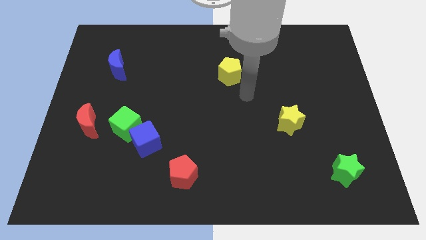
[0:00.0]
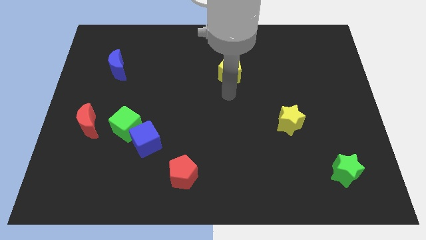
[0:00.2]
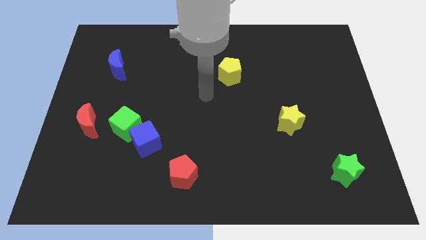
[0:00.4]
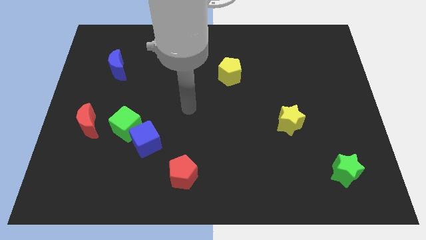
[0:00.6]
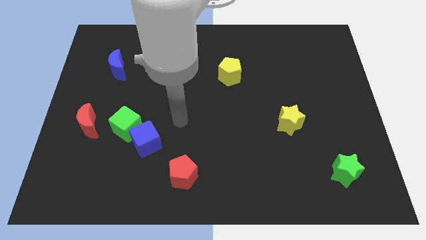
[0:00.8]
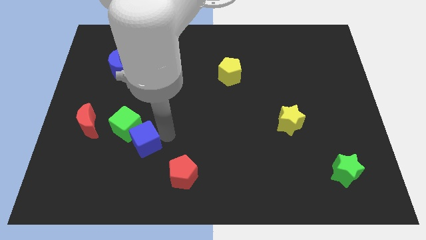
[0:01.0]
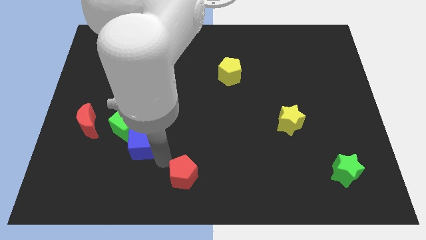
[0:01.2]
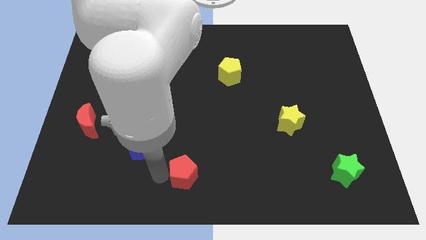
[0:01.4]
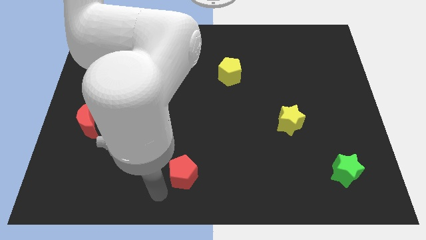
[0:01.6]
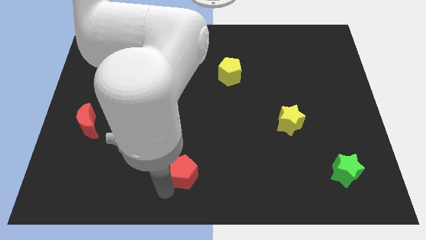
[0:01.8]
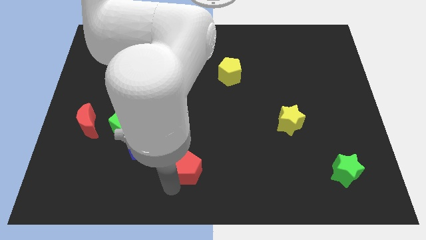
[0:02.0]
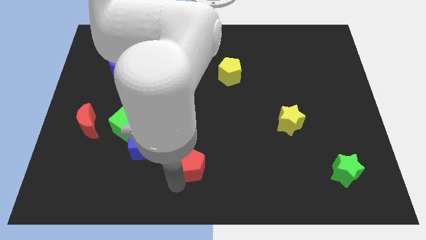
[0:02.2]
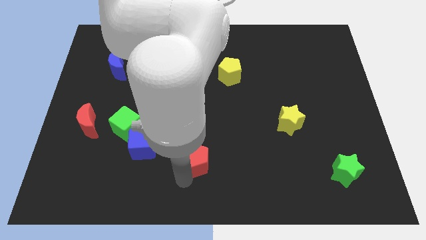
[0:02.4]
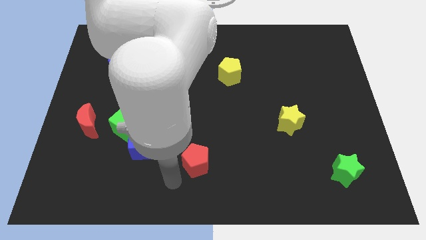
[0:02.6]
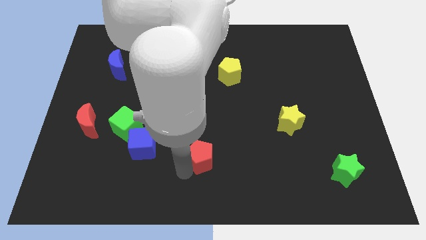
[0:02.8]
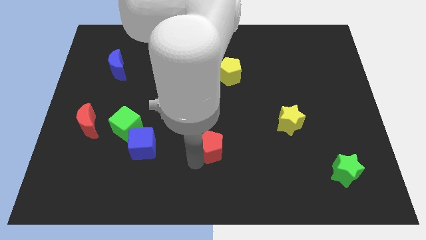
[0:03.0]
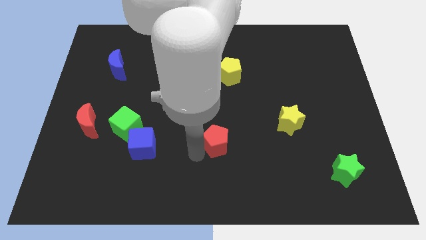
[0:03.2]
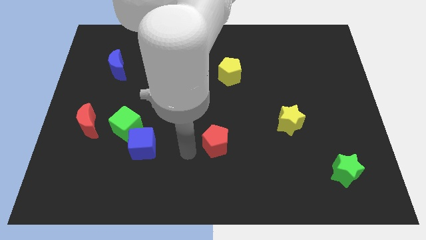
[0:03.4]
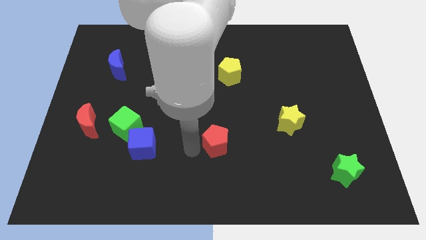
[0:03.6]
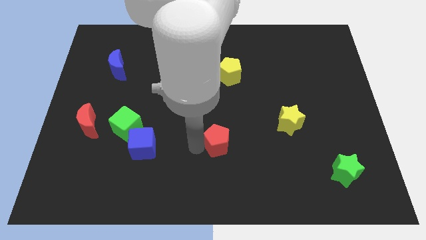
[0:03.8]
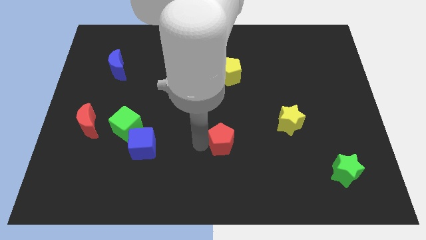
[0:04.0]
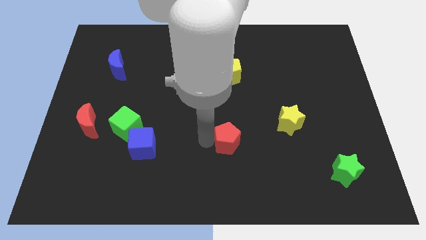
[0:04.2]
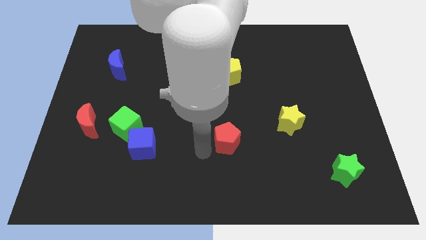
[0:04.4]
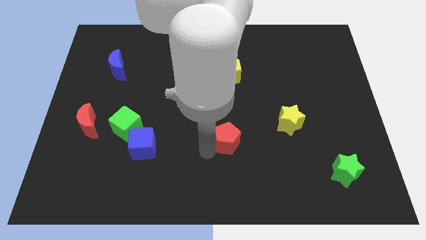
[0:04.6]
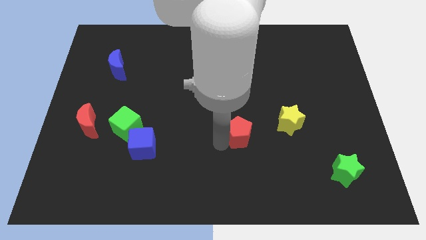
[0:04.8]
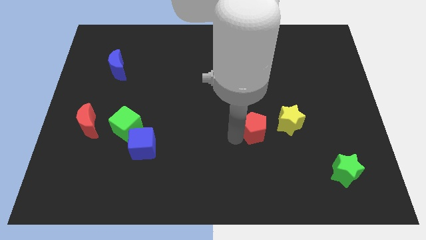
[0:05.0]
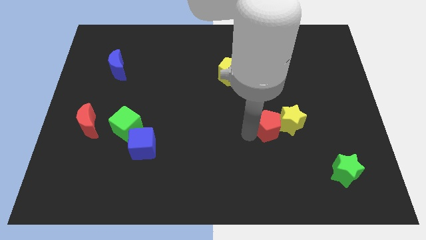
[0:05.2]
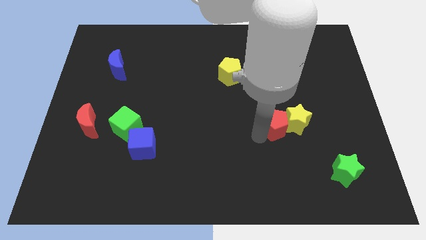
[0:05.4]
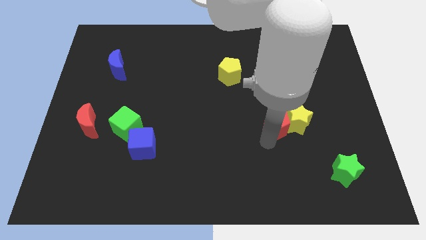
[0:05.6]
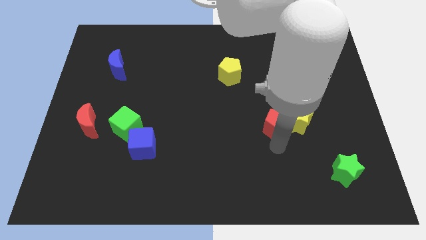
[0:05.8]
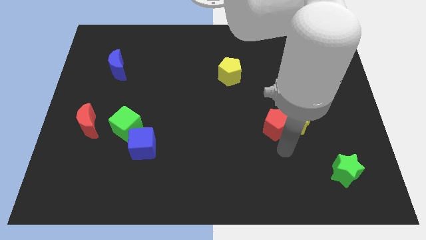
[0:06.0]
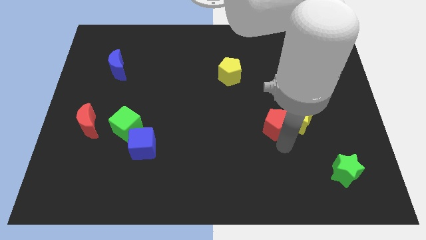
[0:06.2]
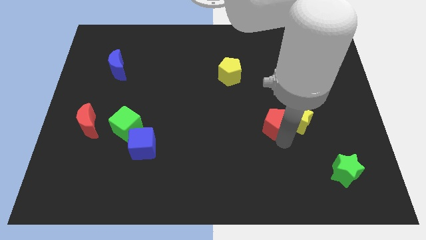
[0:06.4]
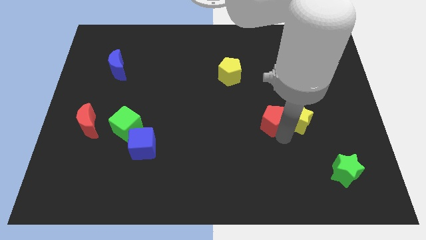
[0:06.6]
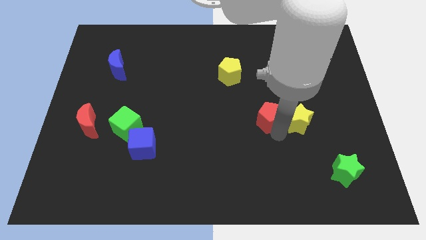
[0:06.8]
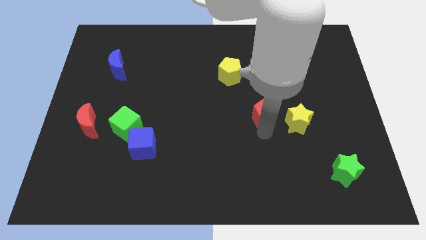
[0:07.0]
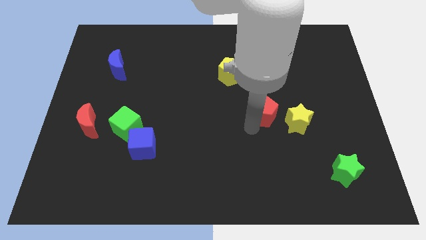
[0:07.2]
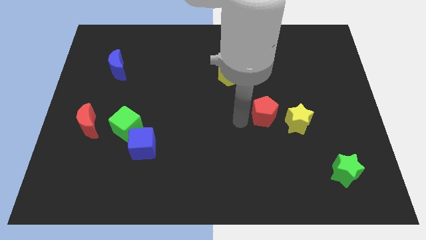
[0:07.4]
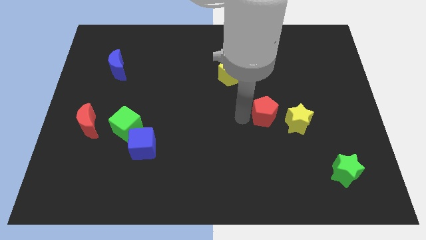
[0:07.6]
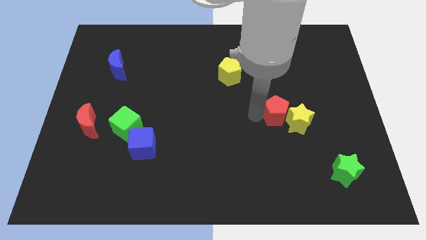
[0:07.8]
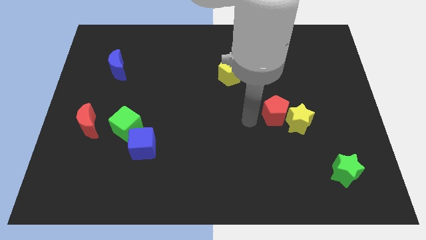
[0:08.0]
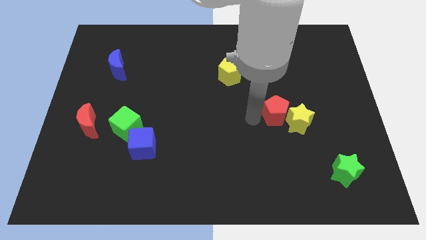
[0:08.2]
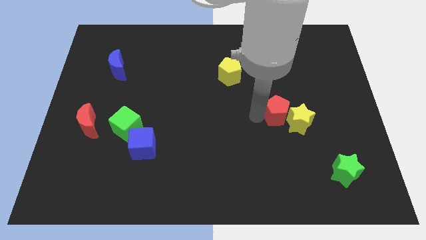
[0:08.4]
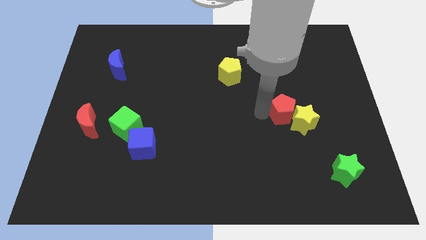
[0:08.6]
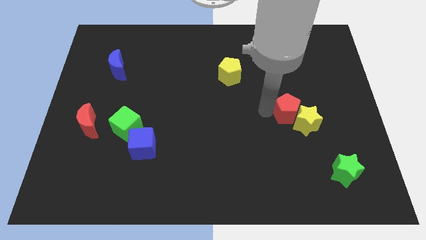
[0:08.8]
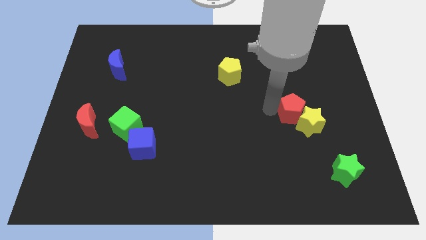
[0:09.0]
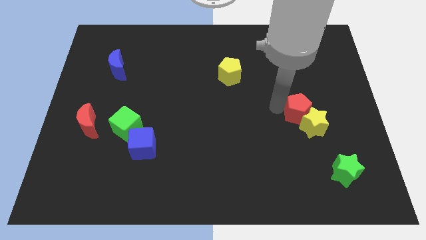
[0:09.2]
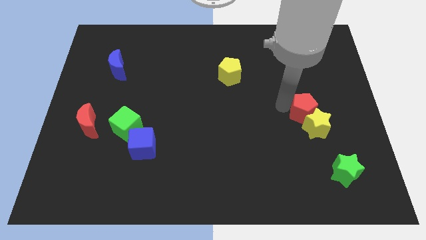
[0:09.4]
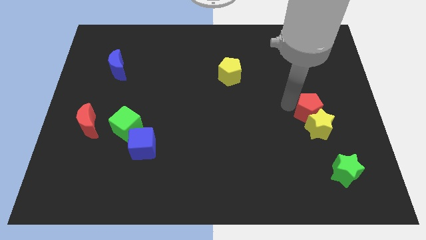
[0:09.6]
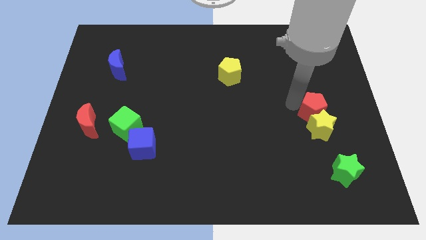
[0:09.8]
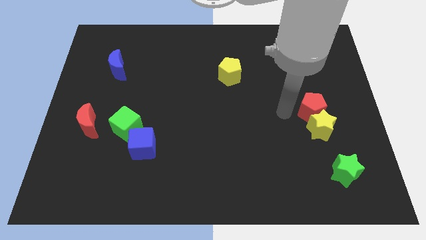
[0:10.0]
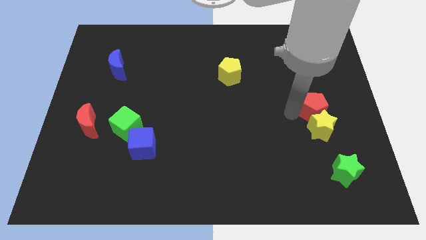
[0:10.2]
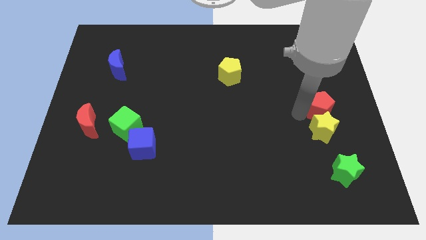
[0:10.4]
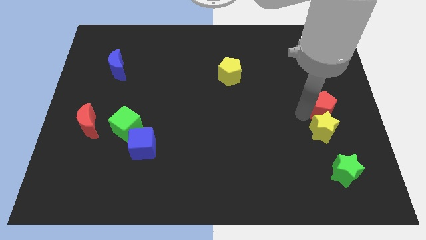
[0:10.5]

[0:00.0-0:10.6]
move the red pentagon to the right side

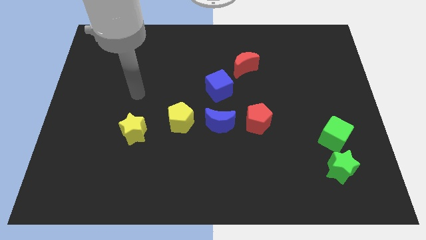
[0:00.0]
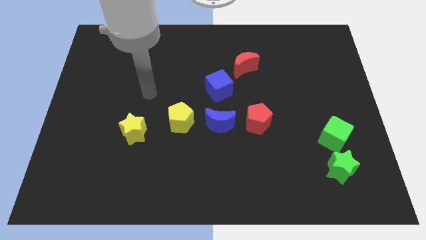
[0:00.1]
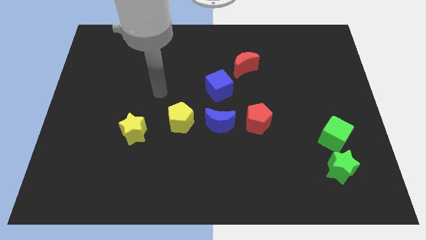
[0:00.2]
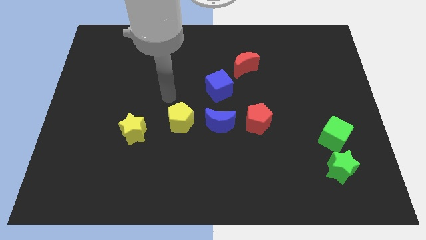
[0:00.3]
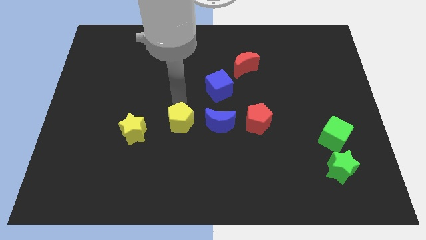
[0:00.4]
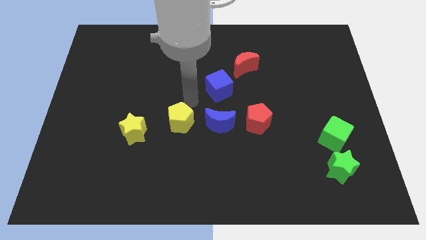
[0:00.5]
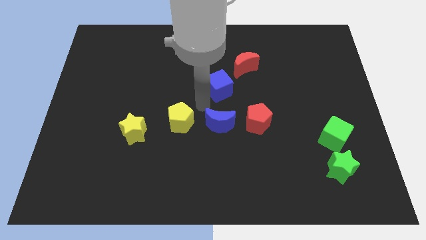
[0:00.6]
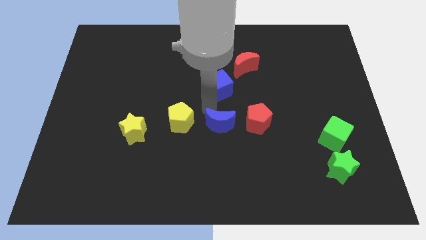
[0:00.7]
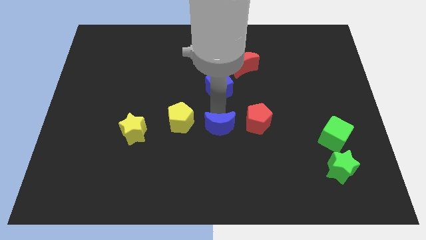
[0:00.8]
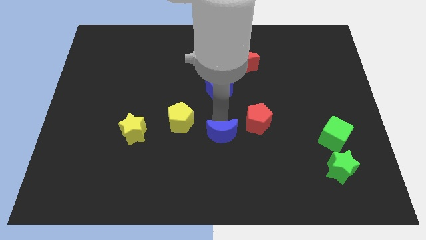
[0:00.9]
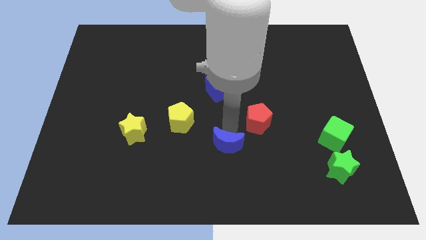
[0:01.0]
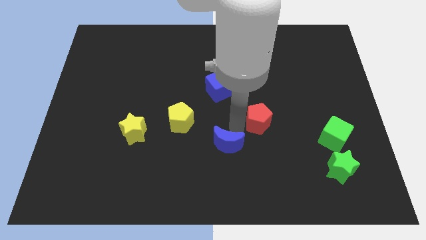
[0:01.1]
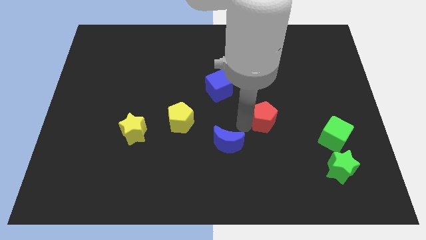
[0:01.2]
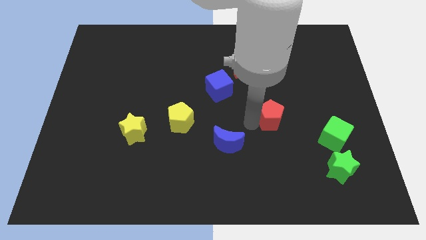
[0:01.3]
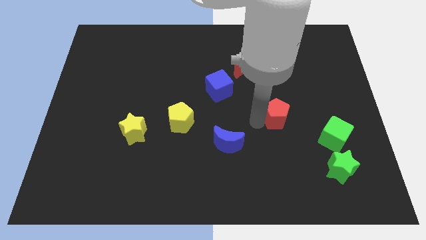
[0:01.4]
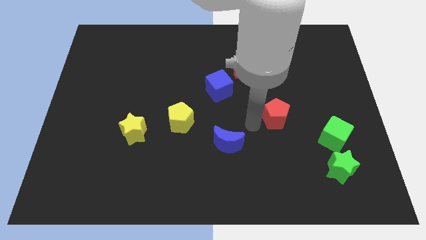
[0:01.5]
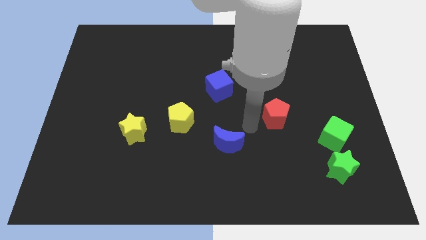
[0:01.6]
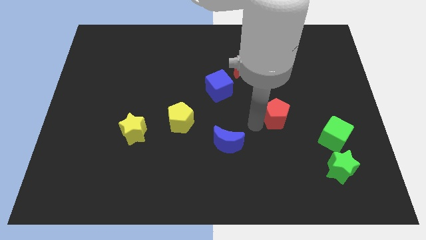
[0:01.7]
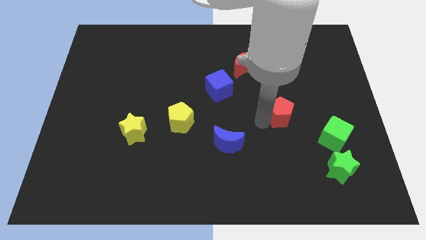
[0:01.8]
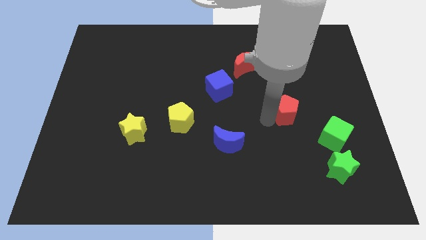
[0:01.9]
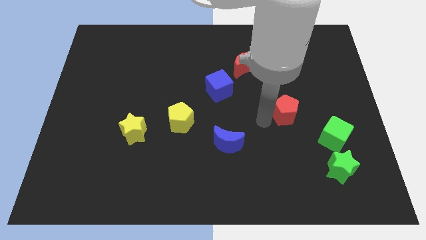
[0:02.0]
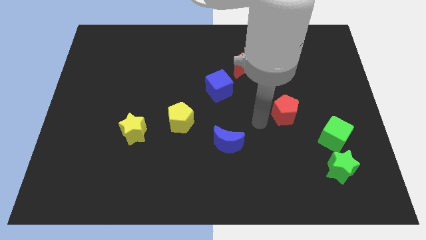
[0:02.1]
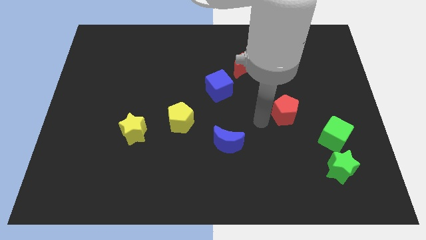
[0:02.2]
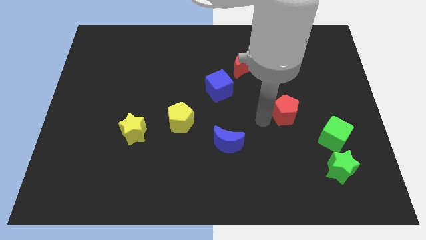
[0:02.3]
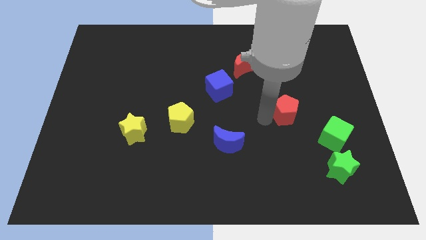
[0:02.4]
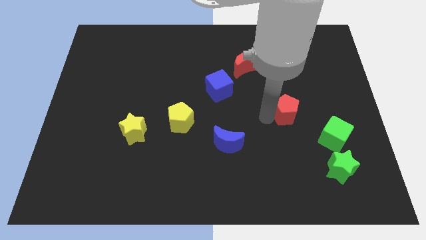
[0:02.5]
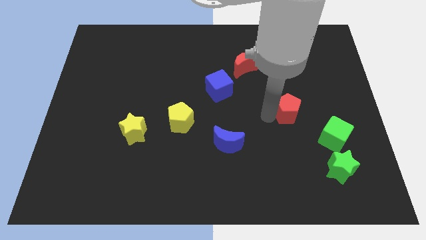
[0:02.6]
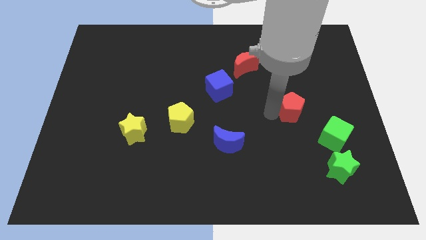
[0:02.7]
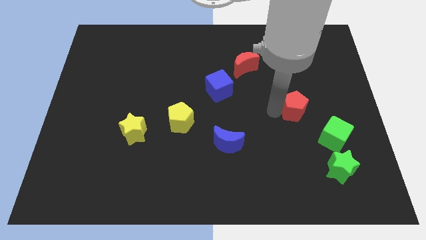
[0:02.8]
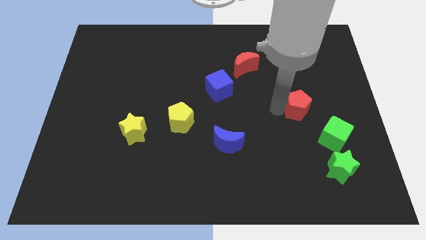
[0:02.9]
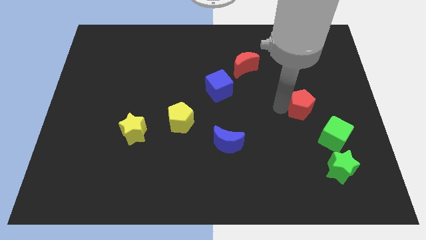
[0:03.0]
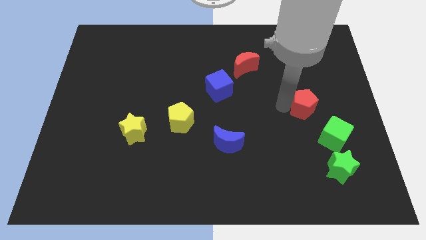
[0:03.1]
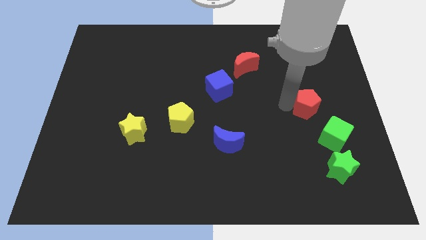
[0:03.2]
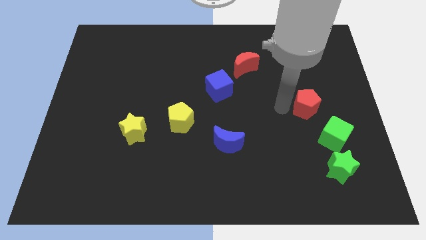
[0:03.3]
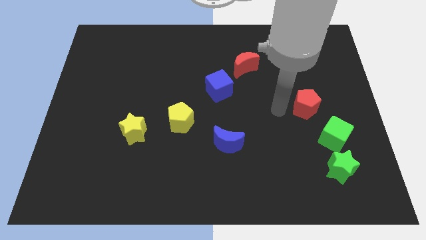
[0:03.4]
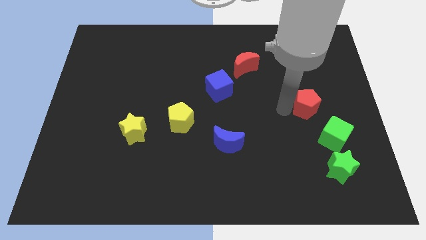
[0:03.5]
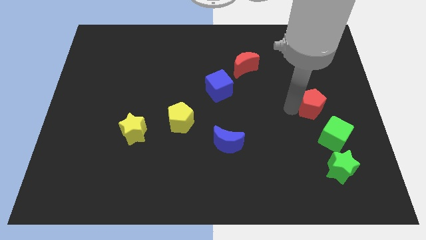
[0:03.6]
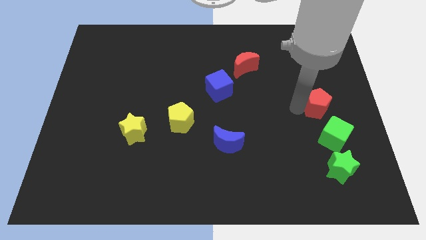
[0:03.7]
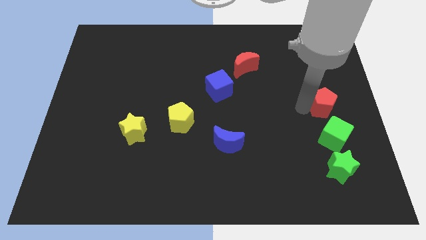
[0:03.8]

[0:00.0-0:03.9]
slide the red pentagon to the center right
